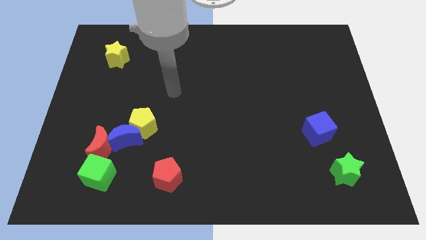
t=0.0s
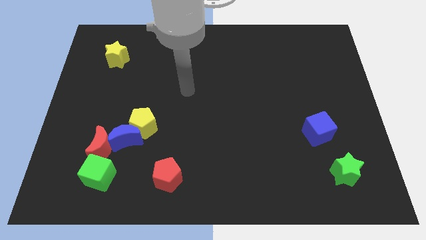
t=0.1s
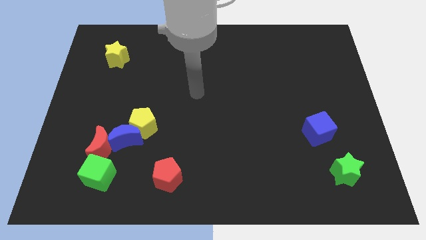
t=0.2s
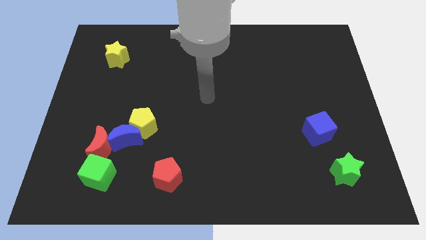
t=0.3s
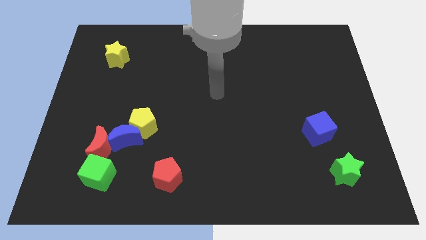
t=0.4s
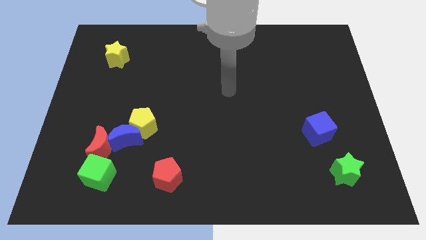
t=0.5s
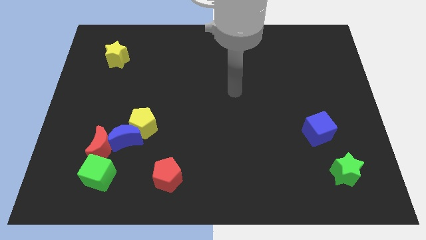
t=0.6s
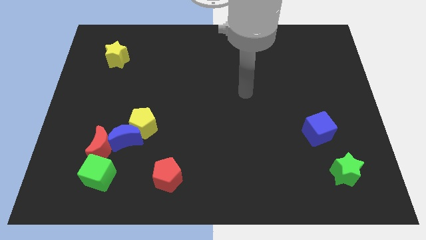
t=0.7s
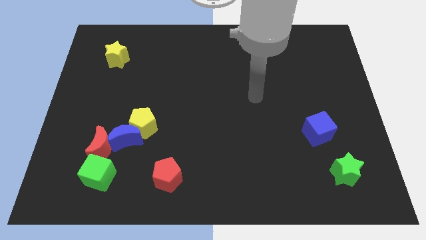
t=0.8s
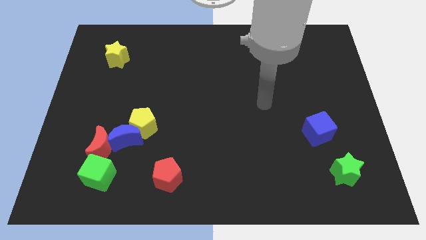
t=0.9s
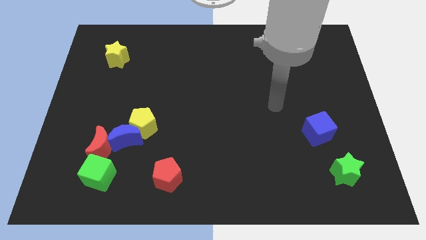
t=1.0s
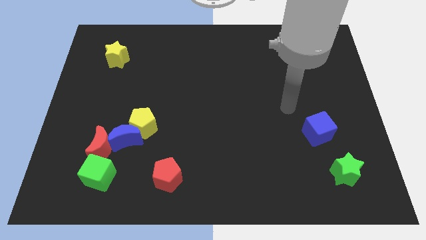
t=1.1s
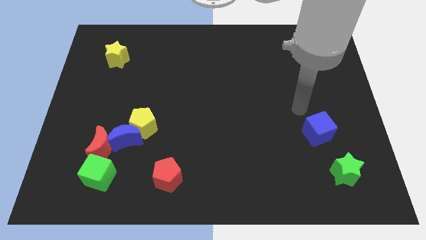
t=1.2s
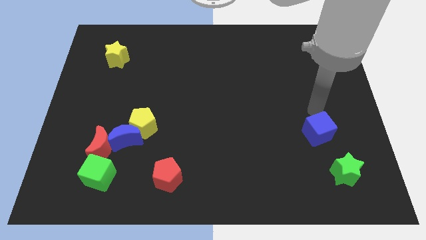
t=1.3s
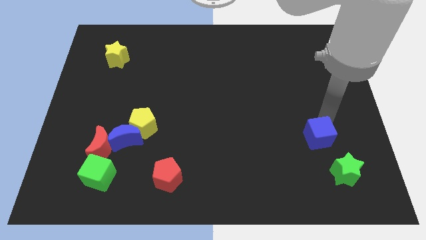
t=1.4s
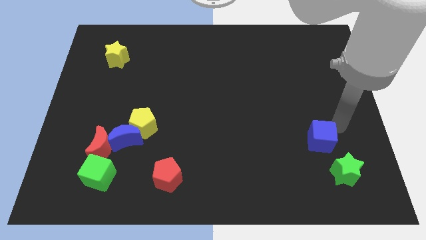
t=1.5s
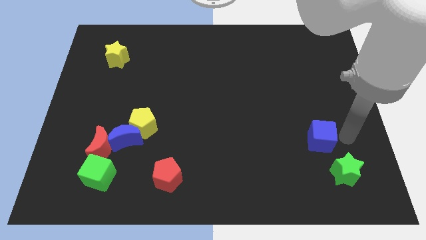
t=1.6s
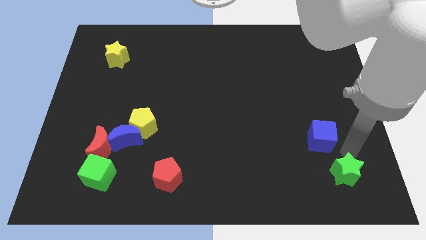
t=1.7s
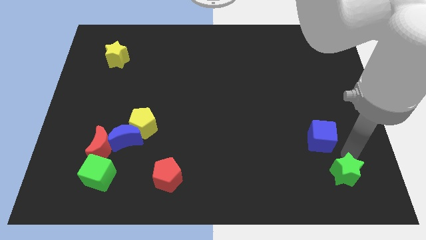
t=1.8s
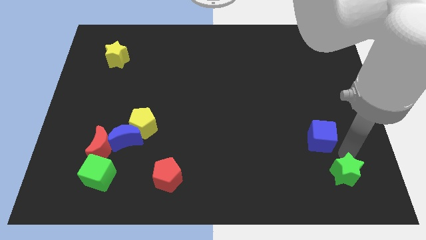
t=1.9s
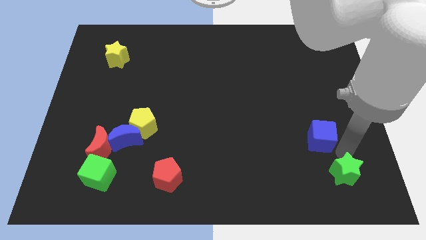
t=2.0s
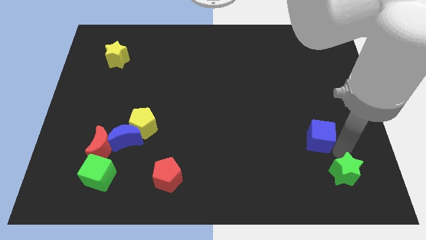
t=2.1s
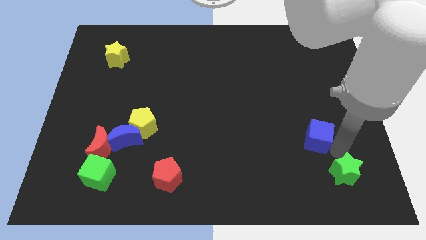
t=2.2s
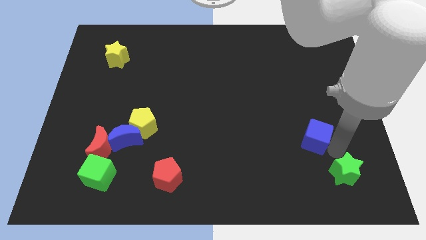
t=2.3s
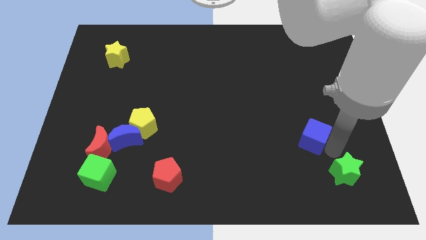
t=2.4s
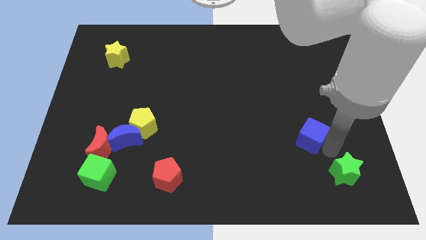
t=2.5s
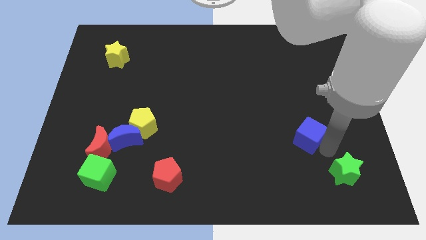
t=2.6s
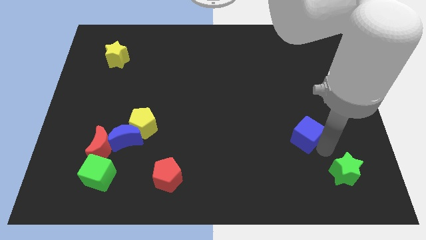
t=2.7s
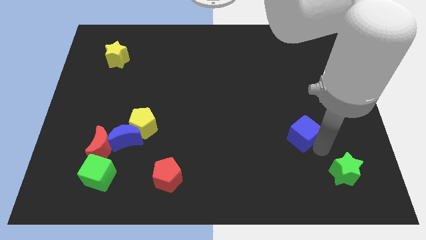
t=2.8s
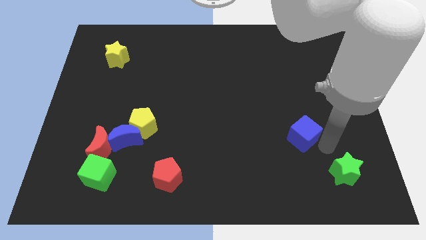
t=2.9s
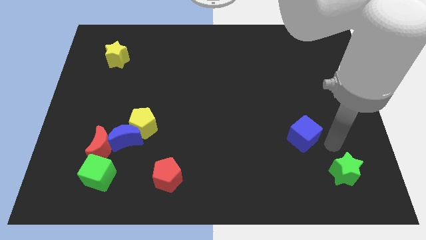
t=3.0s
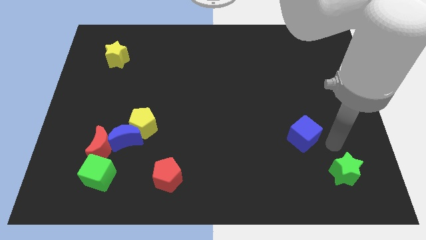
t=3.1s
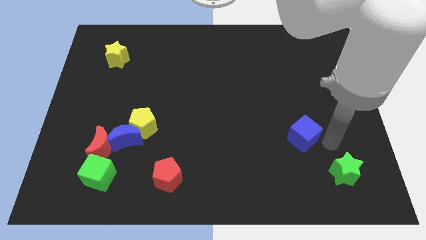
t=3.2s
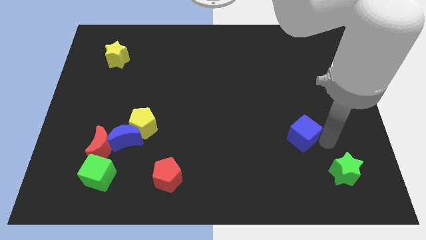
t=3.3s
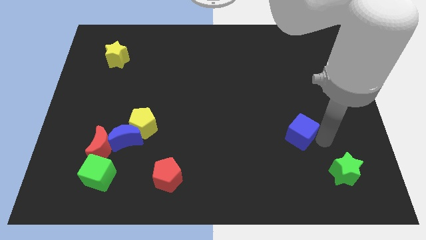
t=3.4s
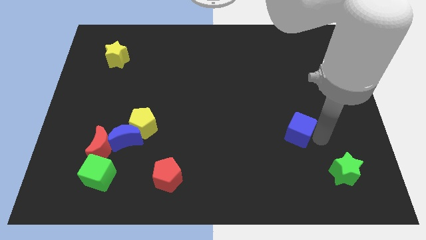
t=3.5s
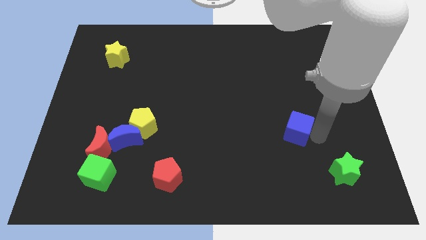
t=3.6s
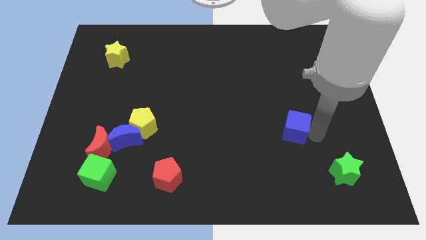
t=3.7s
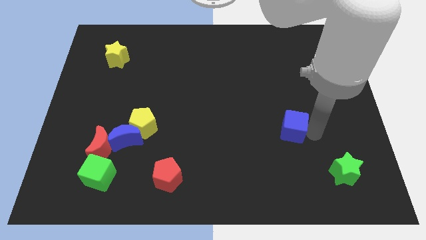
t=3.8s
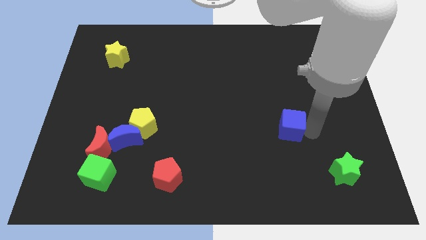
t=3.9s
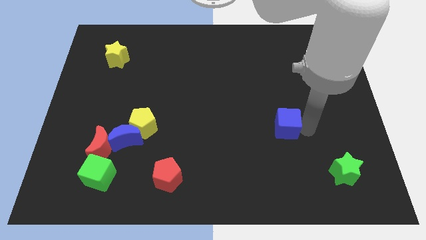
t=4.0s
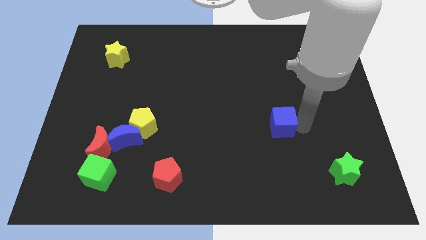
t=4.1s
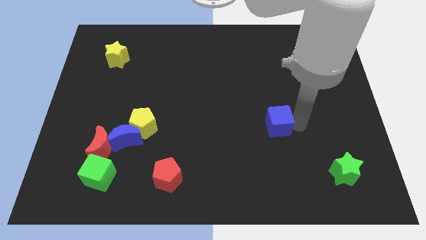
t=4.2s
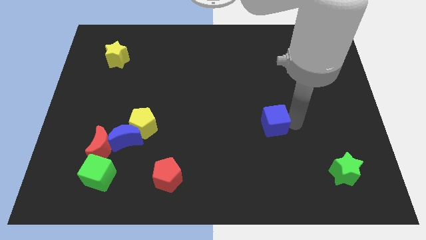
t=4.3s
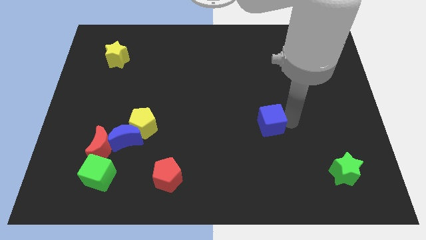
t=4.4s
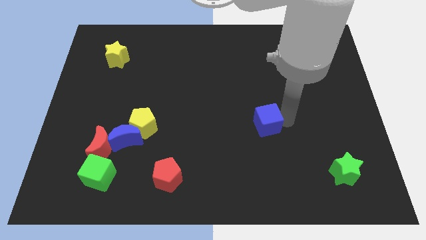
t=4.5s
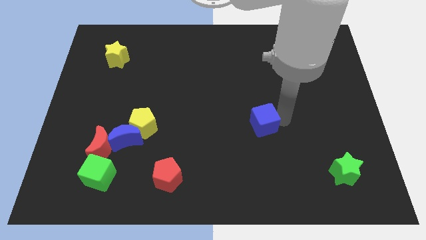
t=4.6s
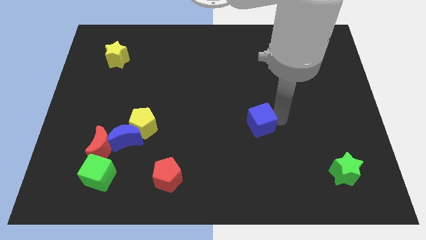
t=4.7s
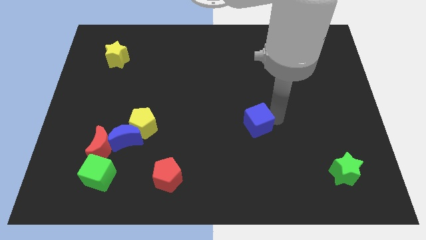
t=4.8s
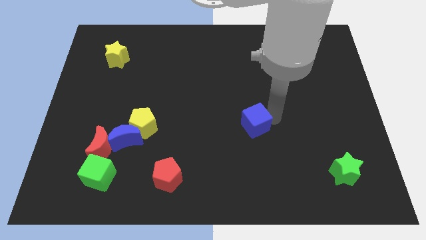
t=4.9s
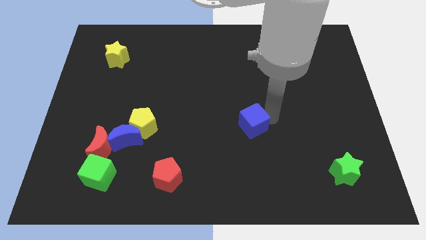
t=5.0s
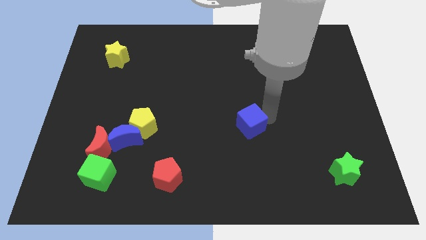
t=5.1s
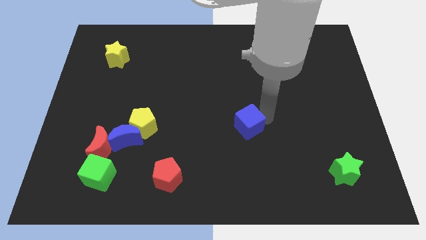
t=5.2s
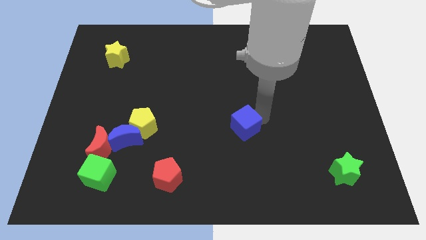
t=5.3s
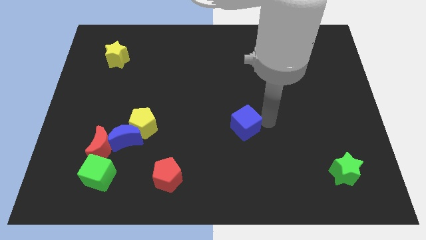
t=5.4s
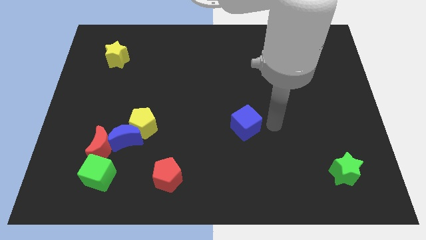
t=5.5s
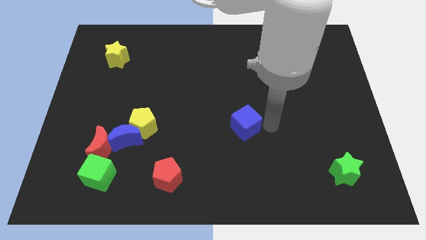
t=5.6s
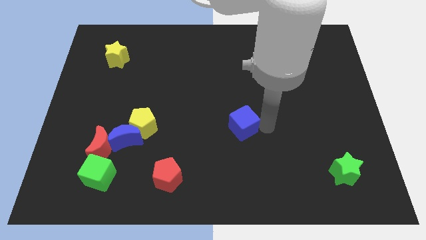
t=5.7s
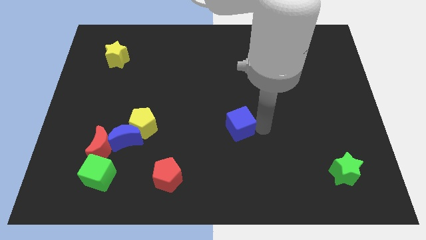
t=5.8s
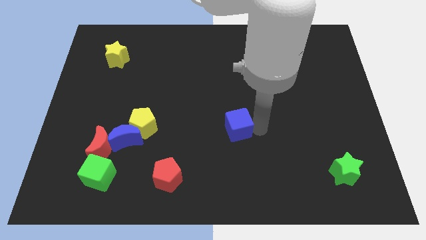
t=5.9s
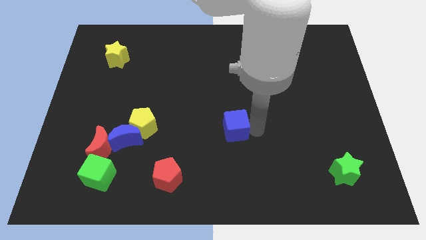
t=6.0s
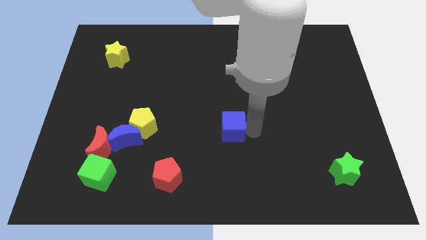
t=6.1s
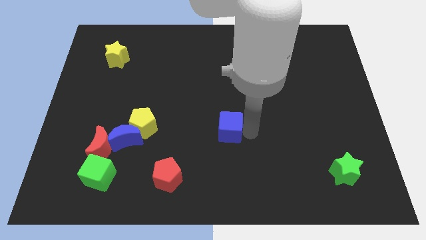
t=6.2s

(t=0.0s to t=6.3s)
move the blue cube to the left

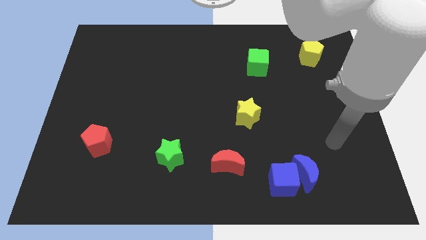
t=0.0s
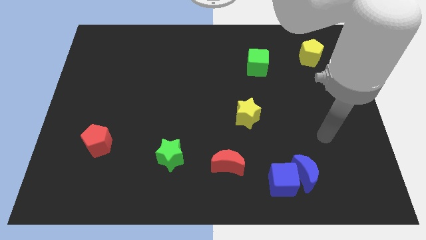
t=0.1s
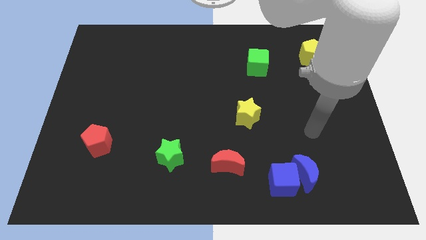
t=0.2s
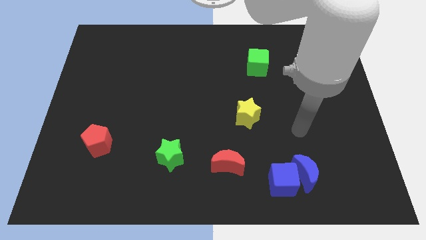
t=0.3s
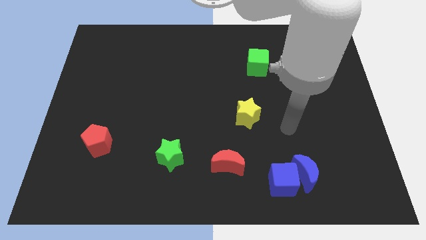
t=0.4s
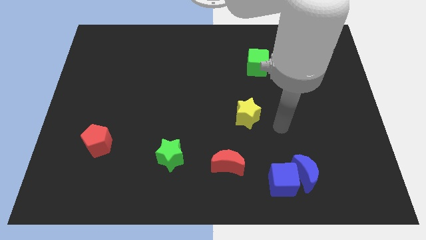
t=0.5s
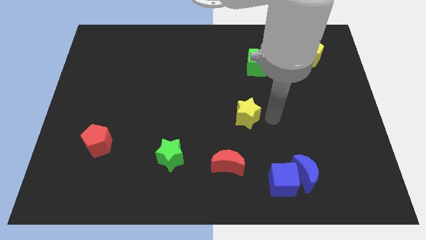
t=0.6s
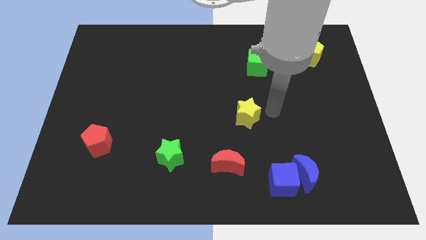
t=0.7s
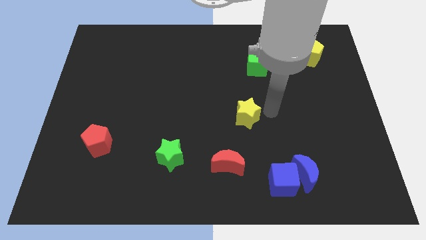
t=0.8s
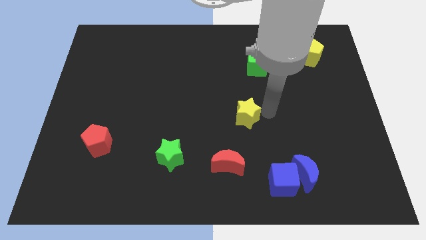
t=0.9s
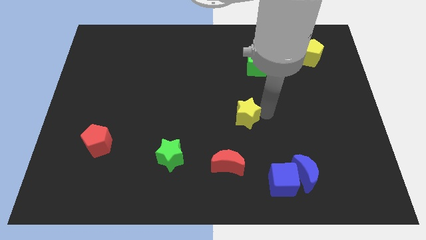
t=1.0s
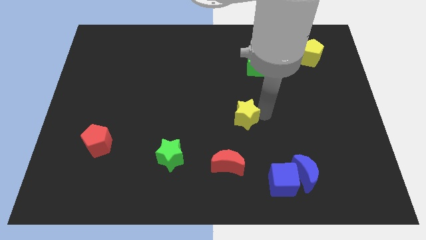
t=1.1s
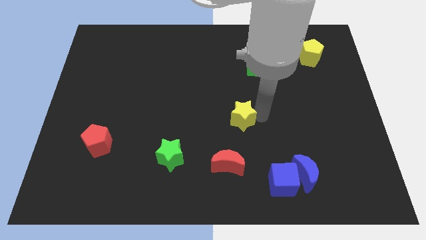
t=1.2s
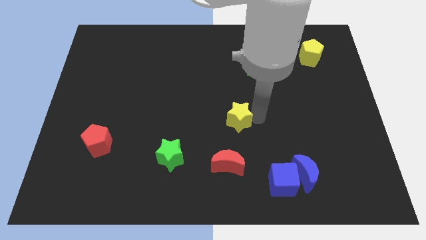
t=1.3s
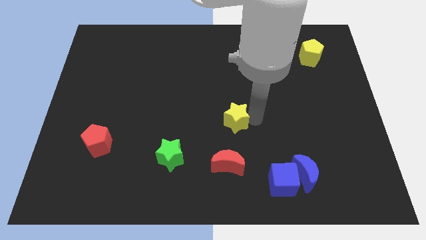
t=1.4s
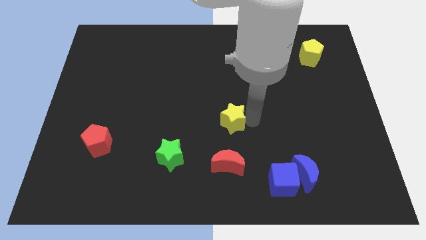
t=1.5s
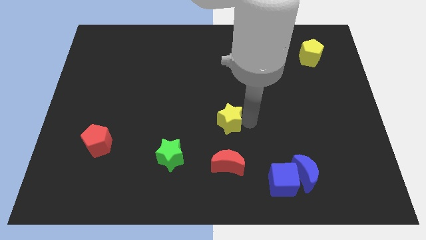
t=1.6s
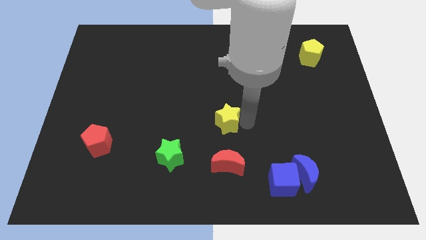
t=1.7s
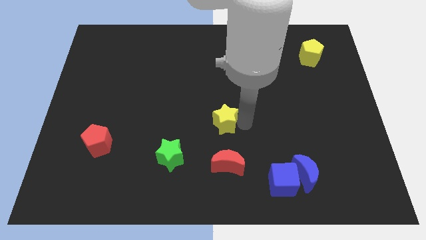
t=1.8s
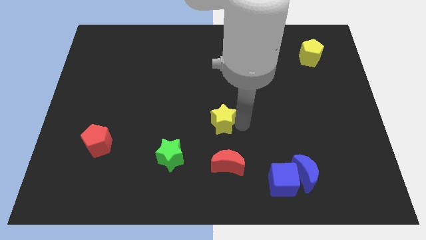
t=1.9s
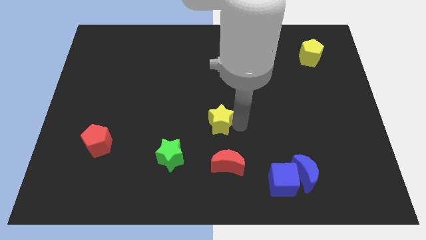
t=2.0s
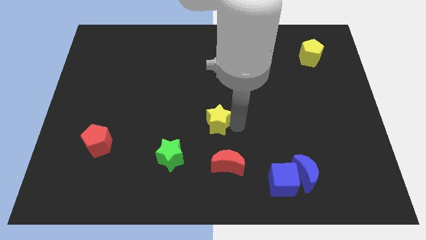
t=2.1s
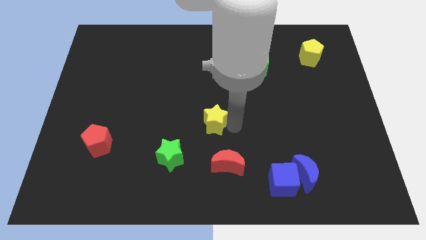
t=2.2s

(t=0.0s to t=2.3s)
move the yellow star left a little bit
